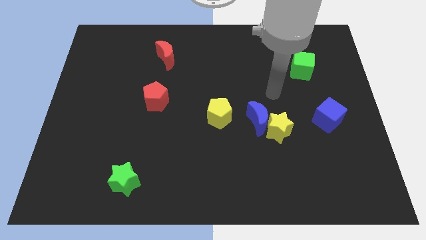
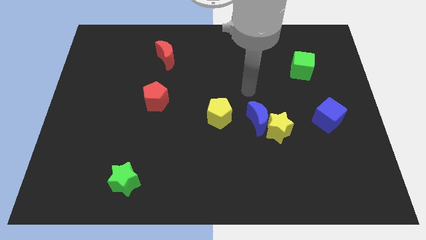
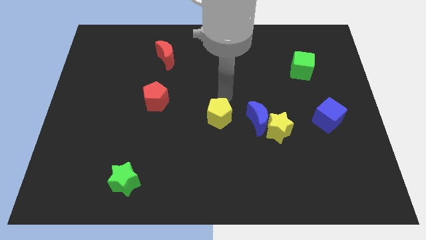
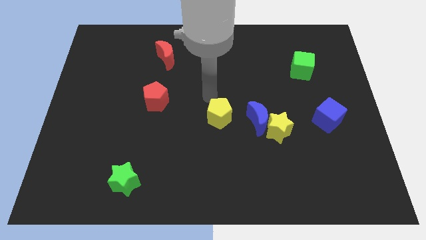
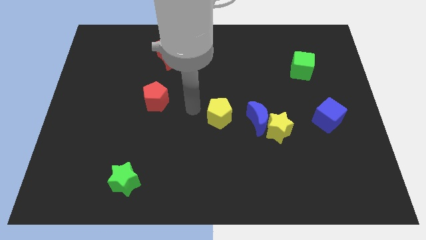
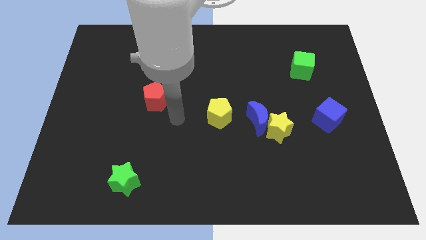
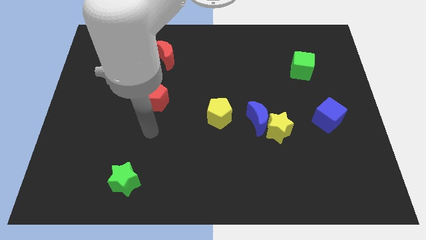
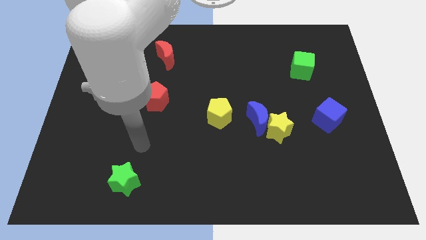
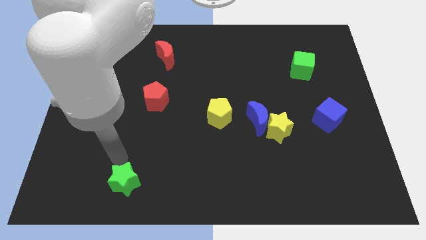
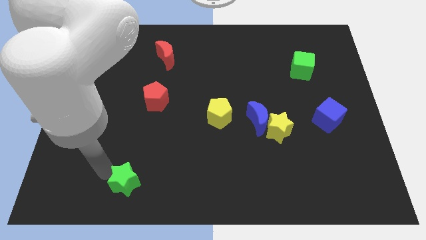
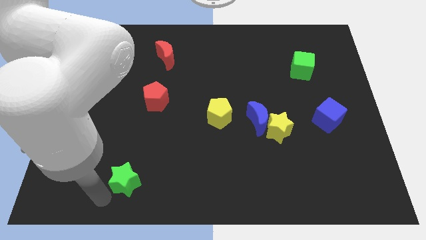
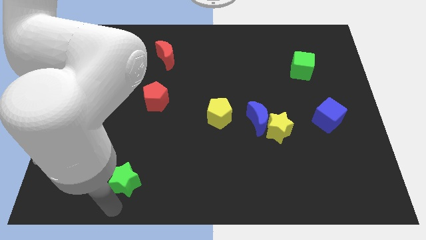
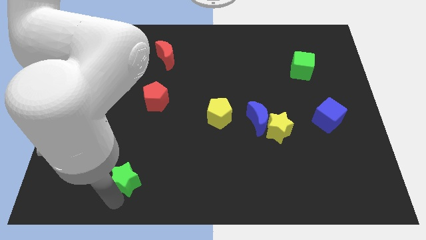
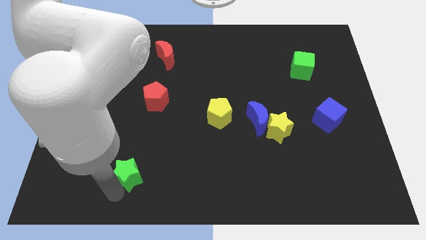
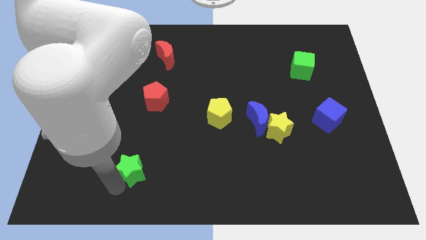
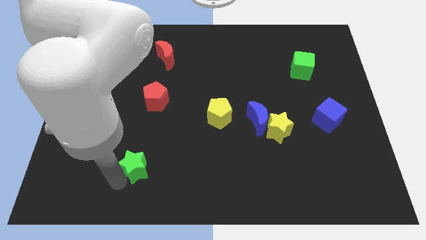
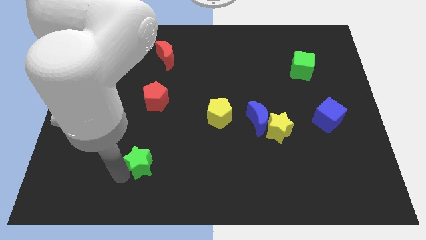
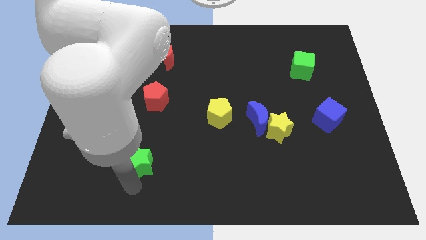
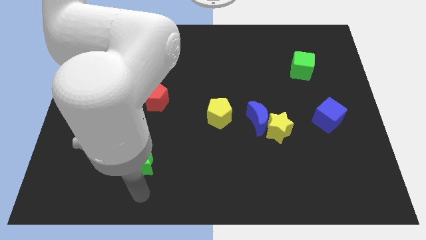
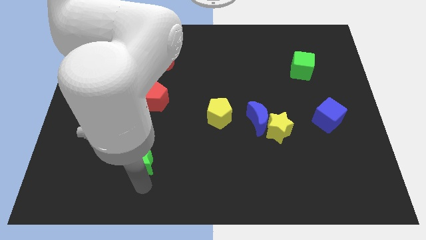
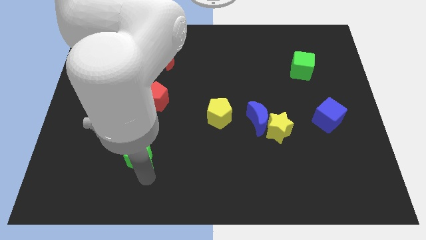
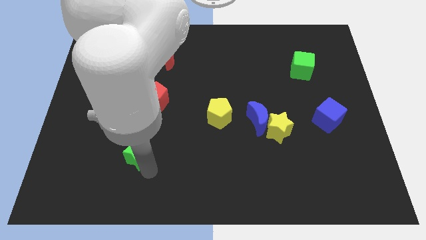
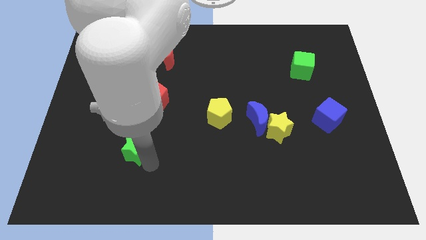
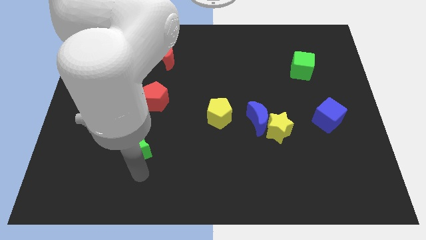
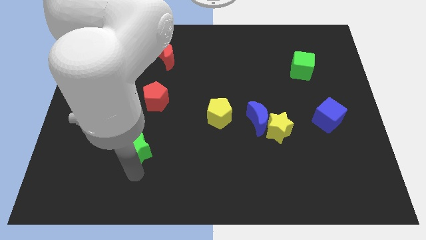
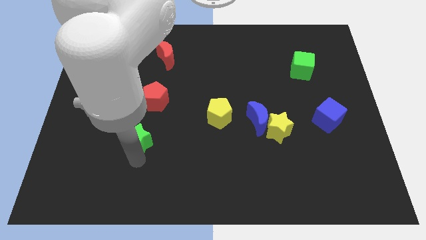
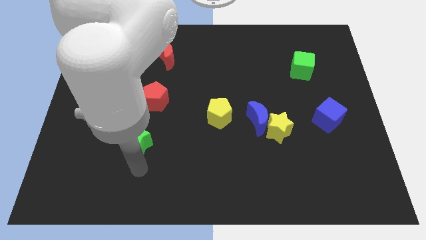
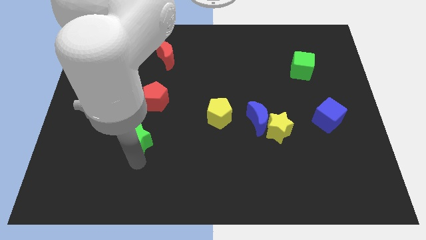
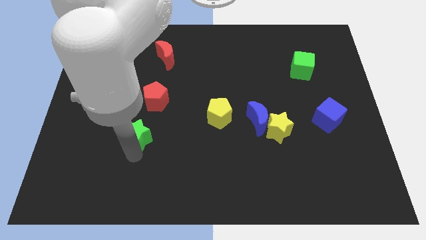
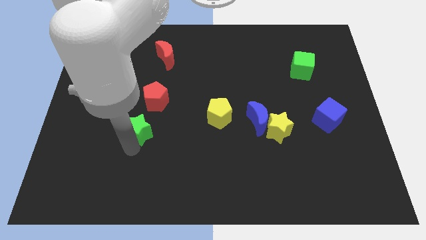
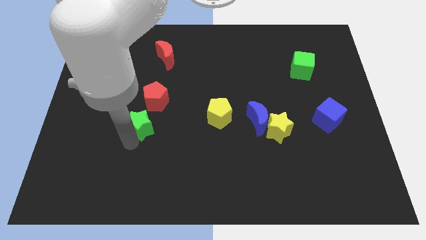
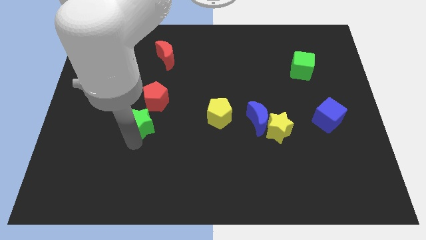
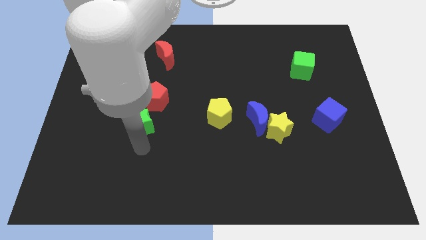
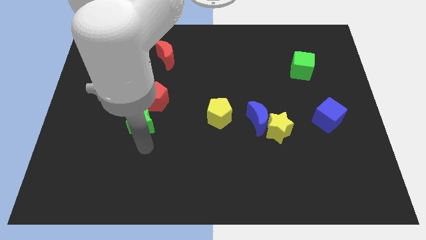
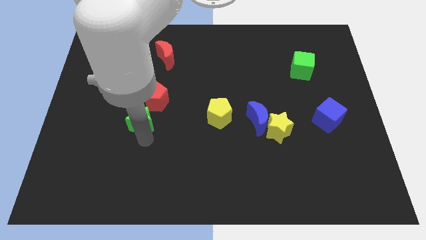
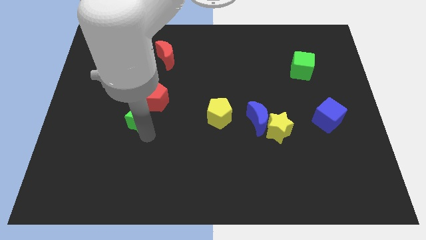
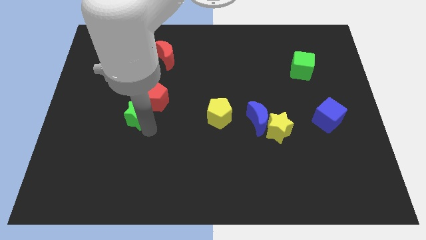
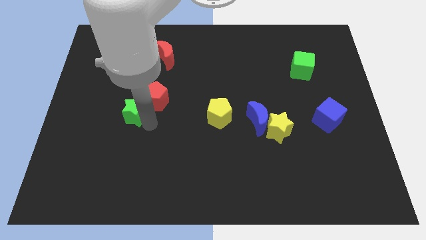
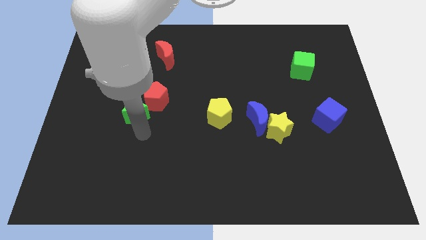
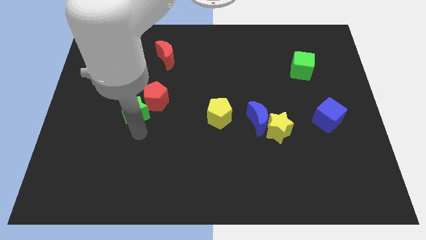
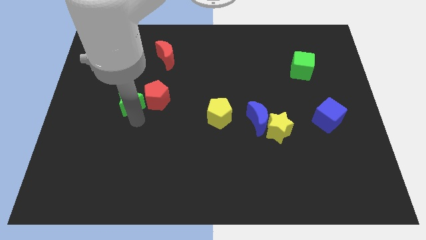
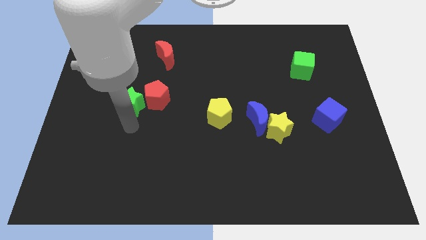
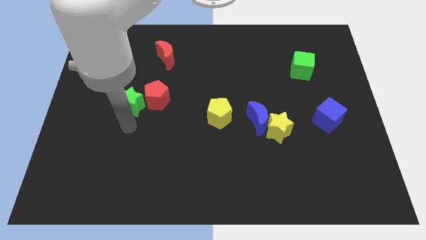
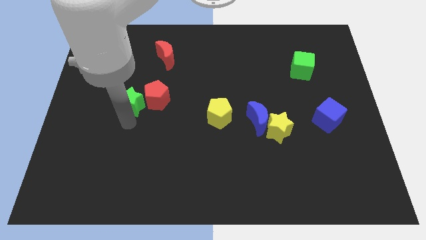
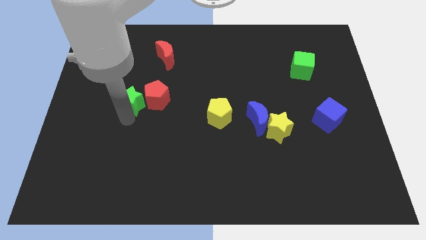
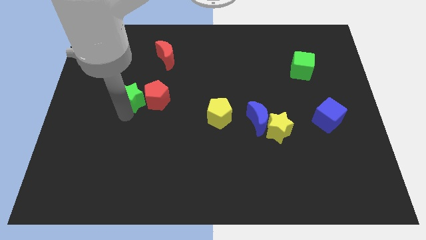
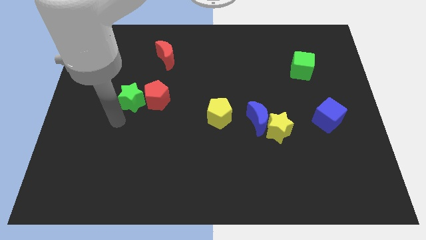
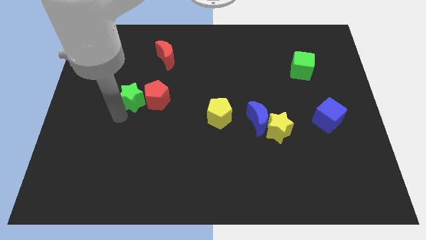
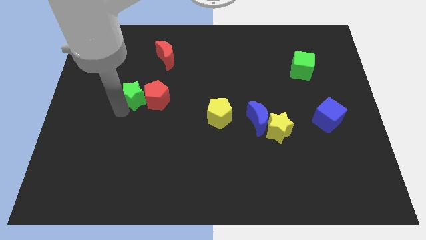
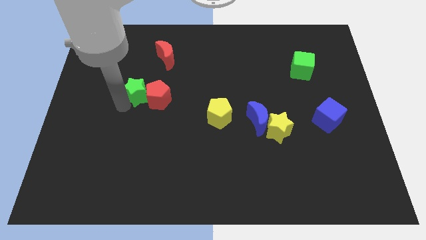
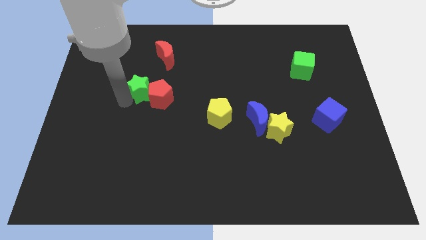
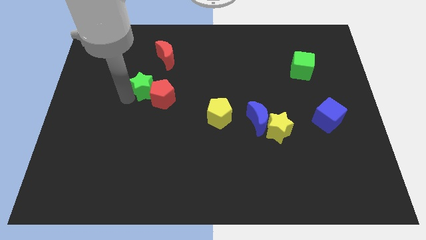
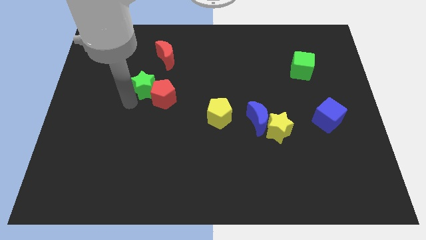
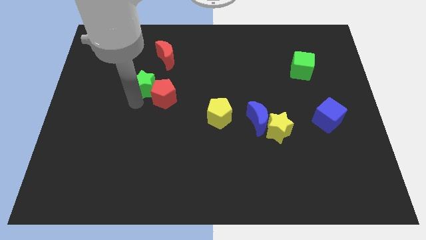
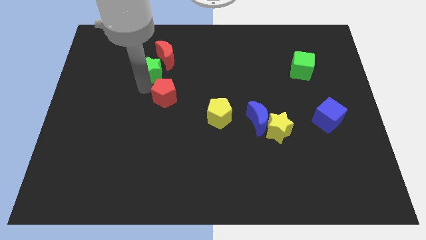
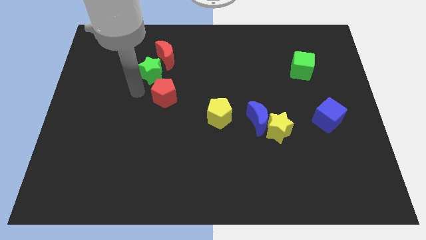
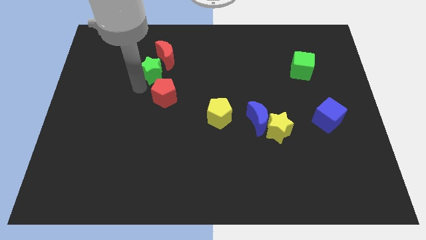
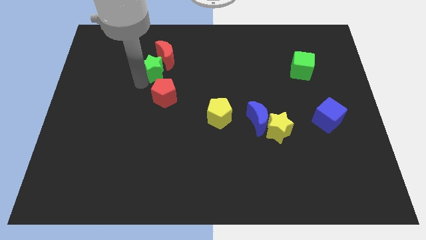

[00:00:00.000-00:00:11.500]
push the green star close to the red moon

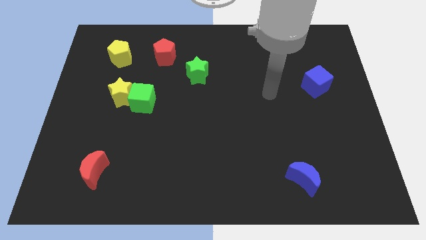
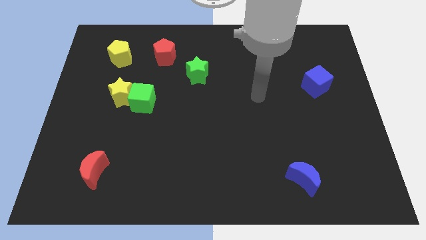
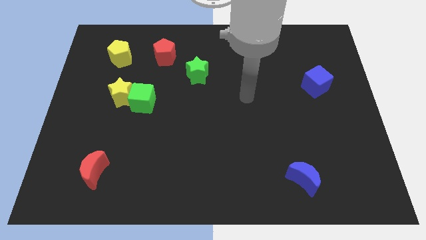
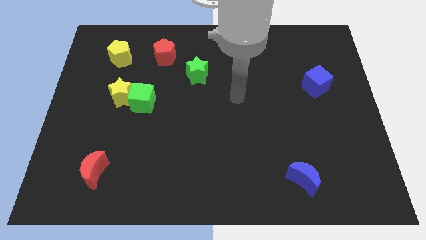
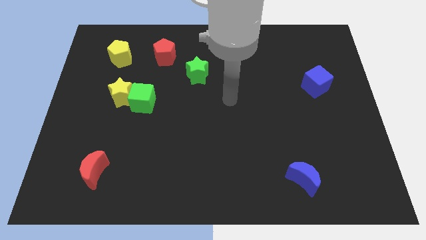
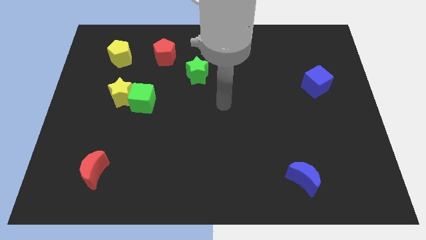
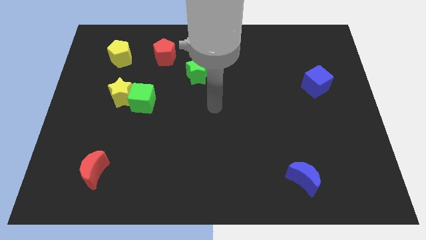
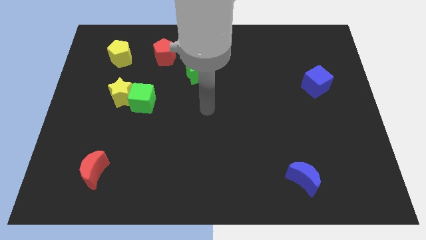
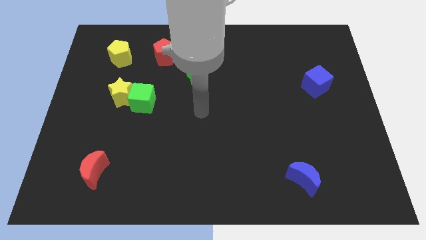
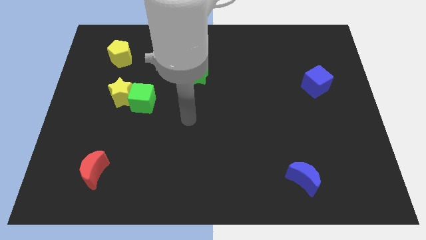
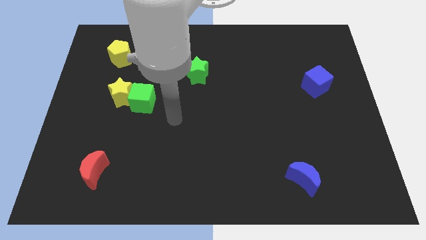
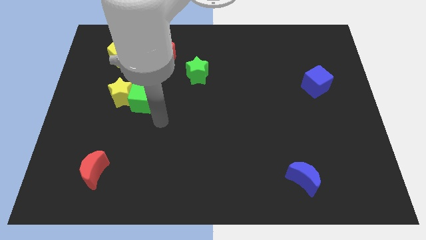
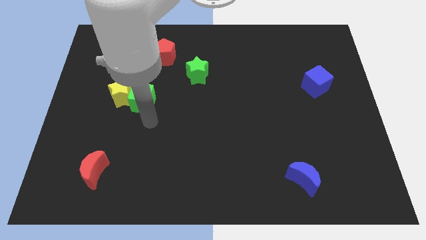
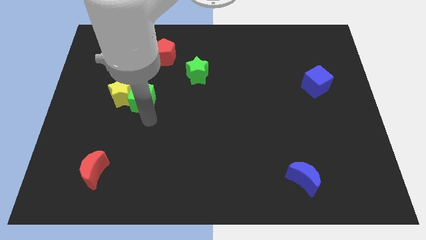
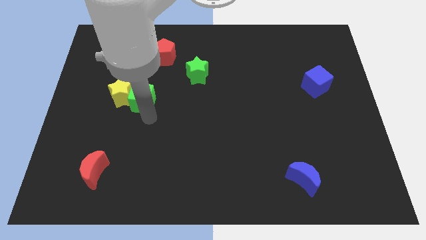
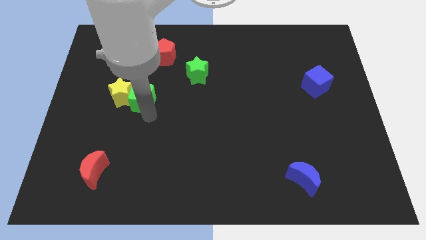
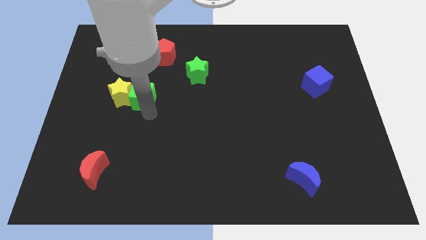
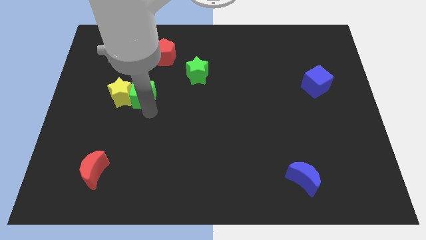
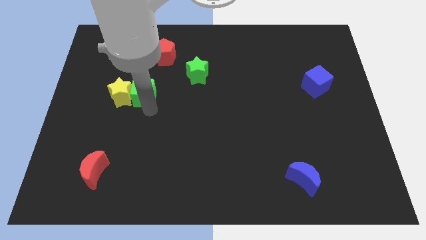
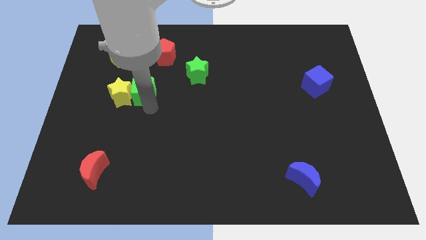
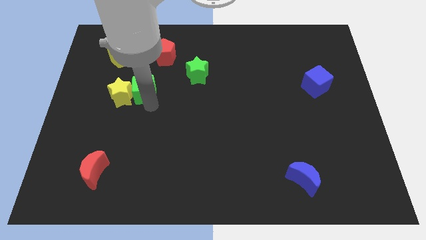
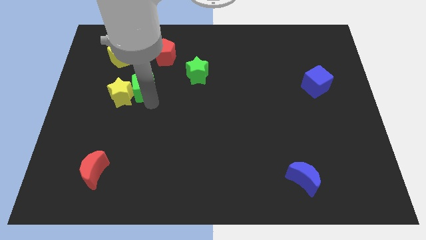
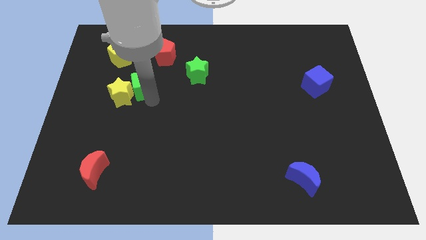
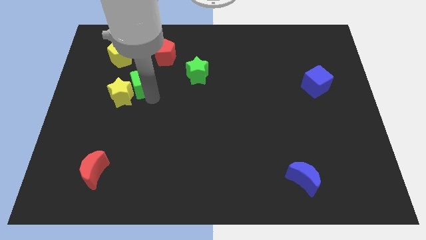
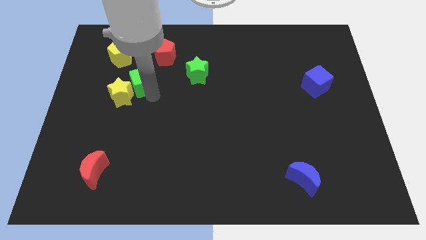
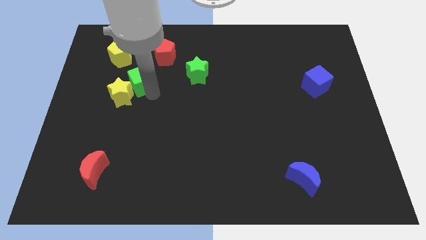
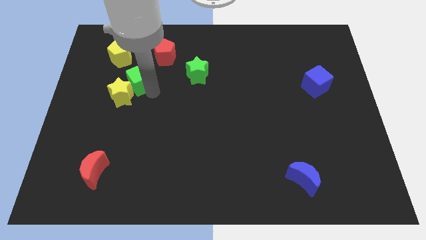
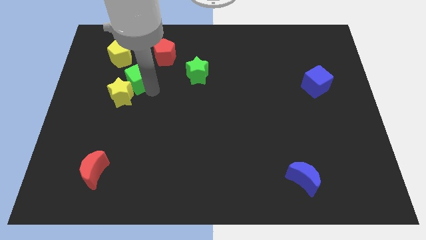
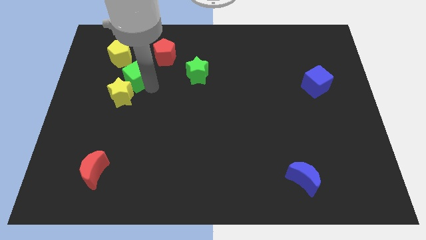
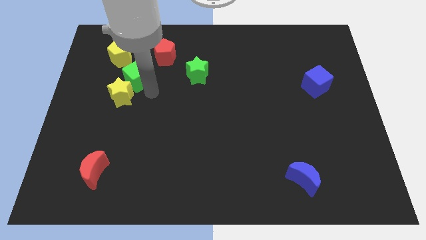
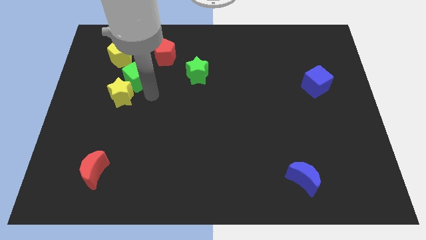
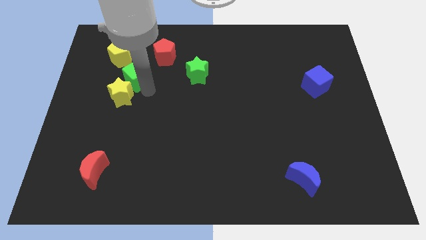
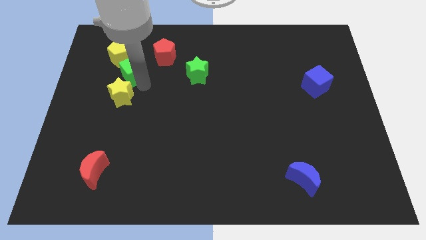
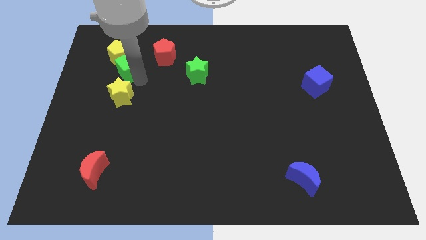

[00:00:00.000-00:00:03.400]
slide the green cube towards the yellow pentagon
